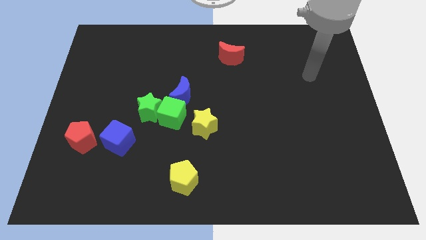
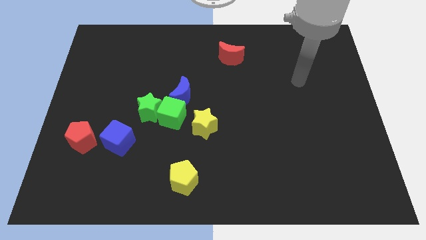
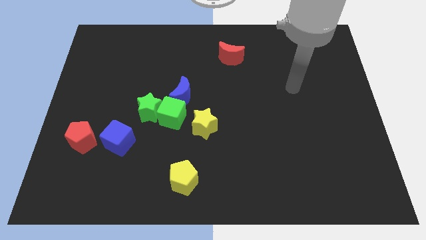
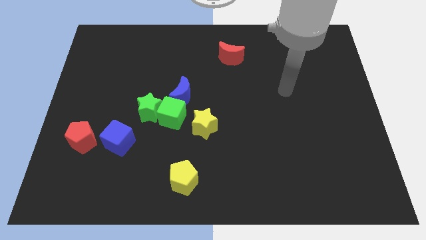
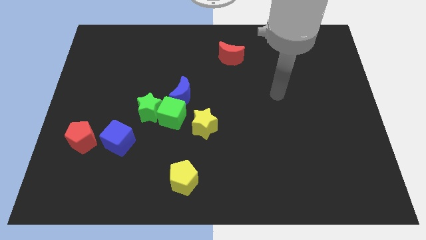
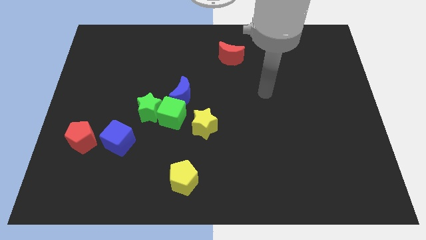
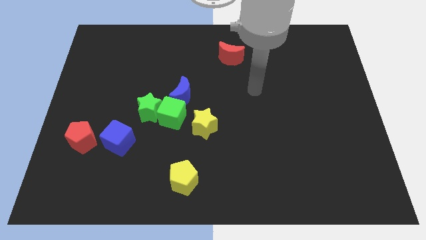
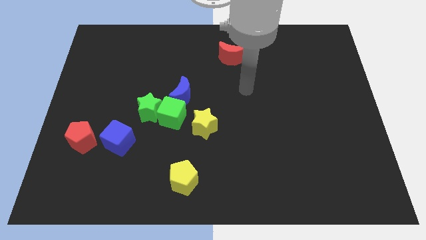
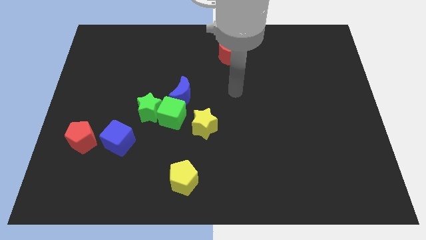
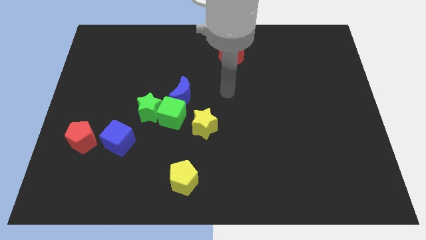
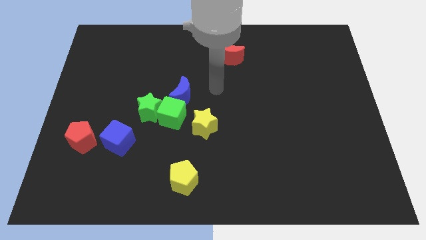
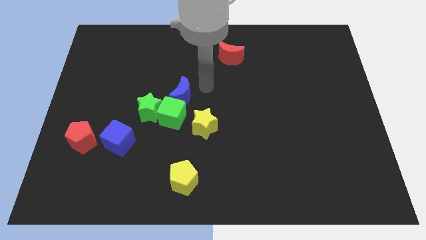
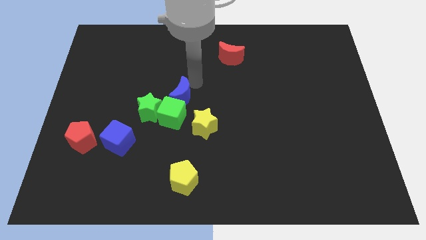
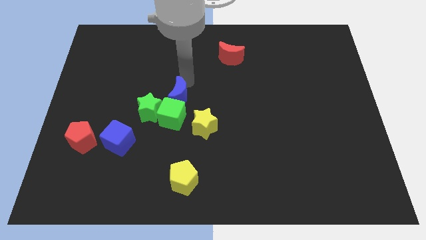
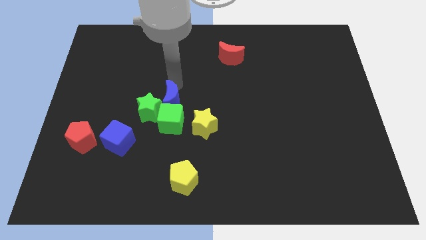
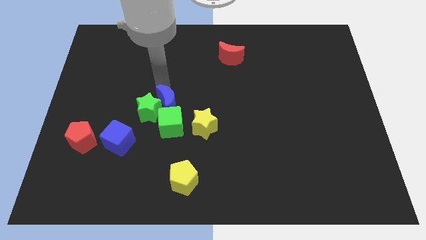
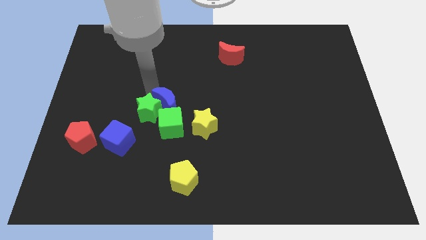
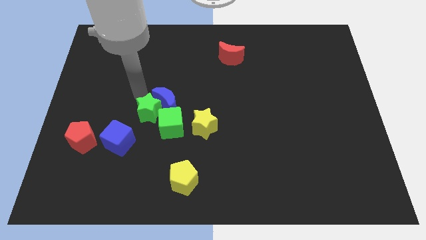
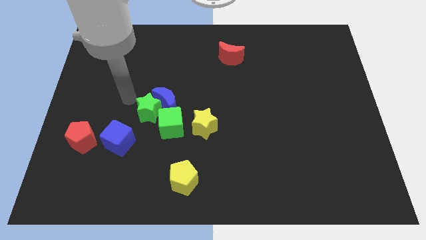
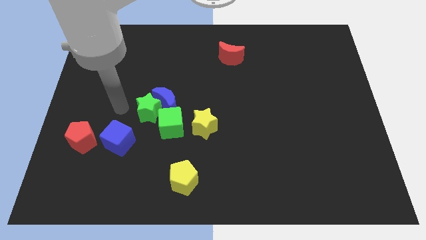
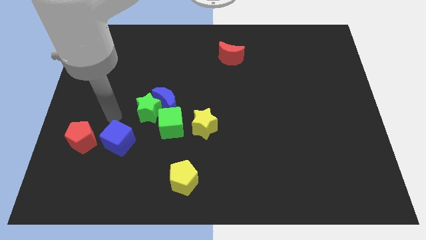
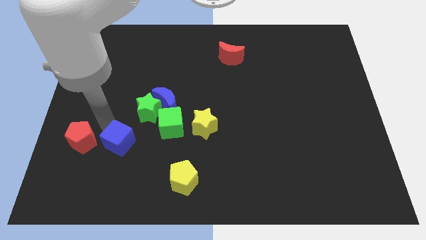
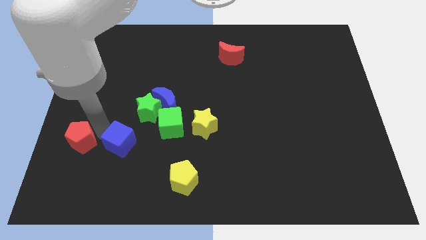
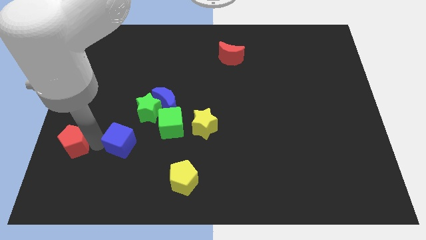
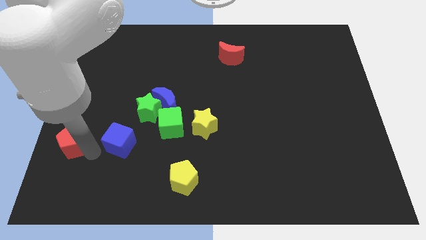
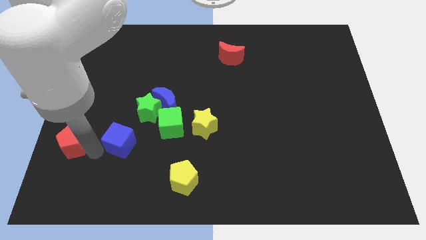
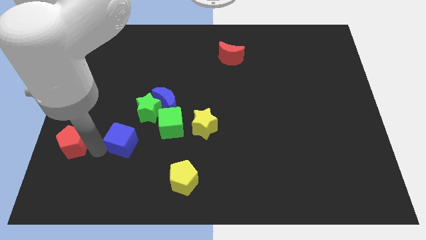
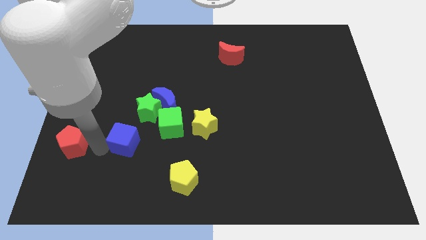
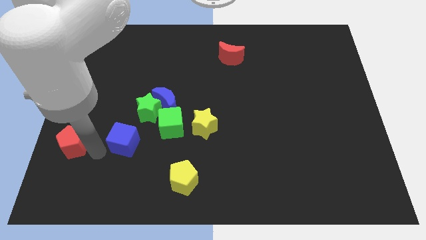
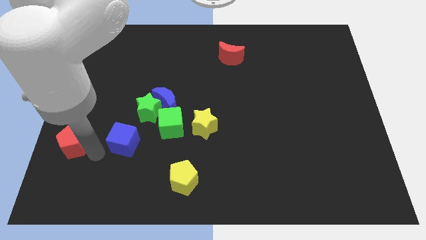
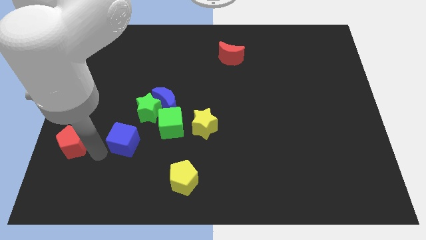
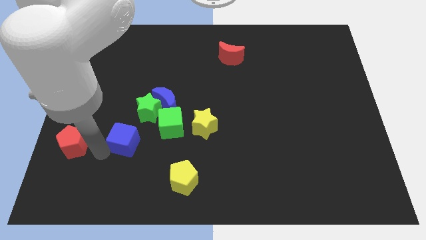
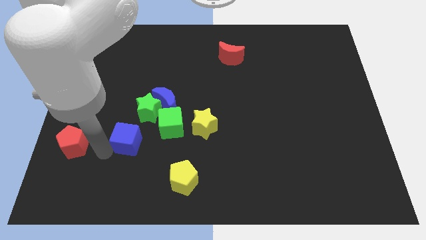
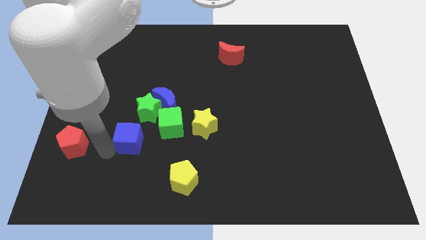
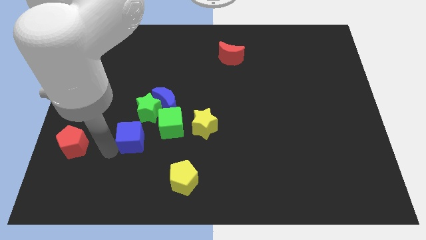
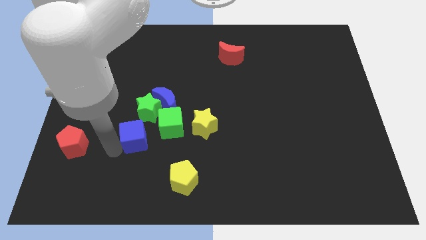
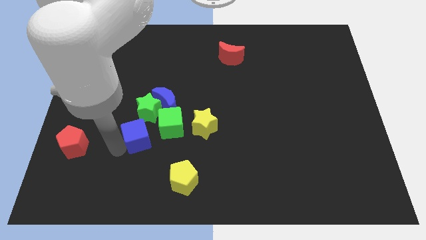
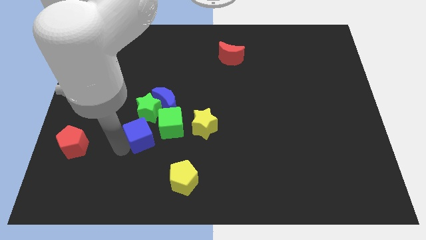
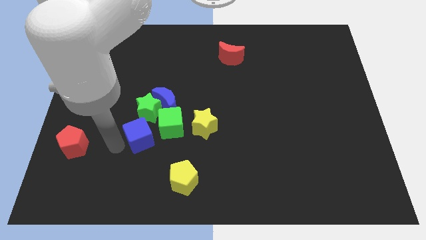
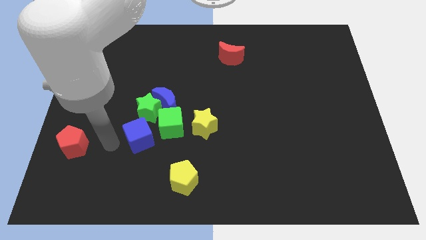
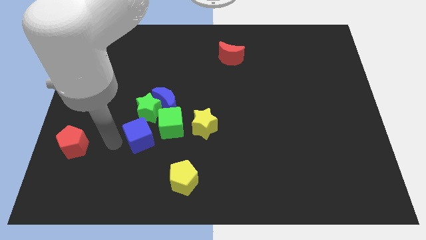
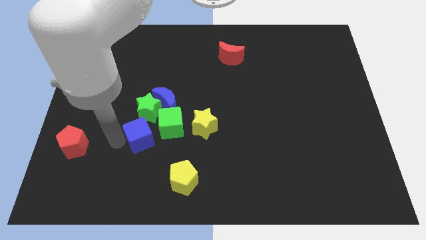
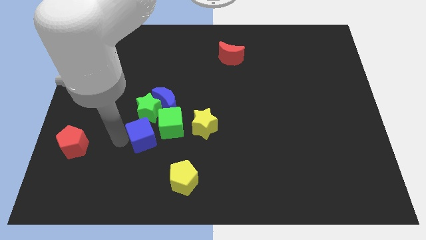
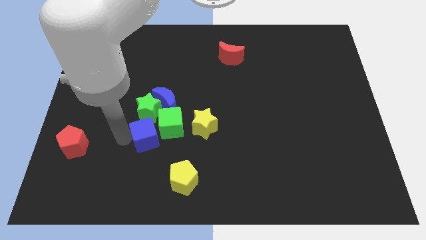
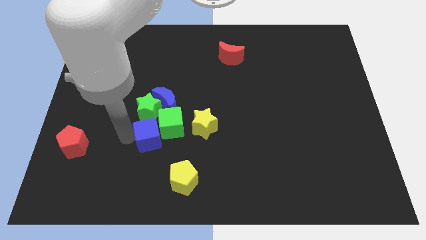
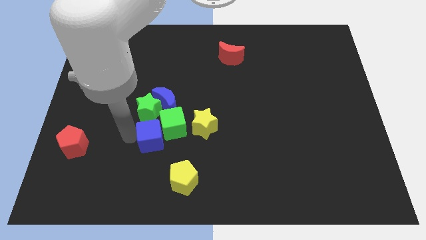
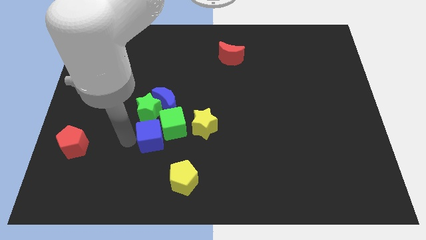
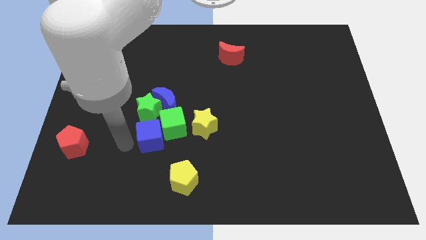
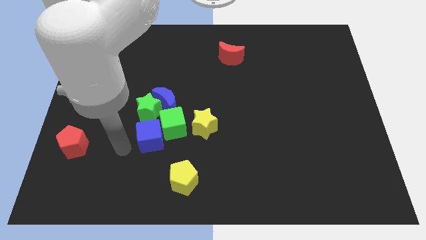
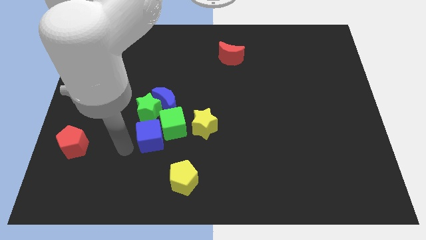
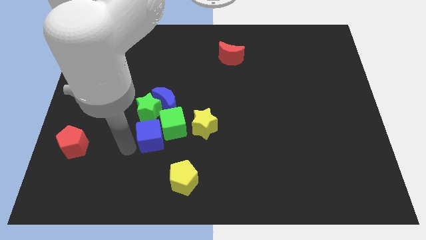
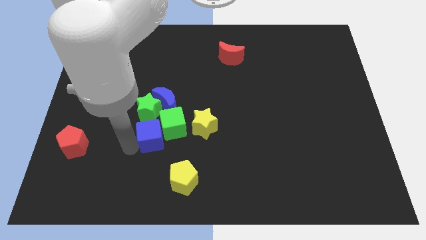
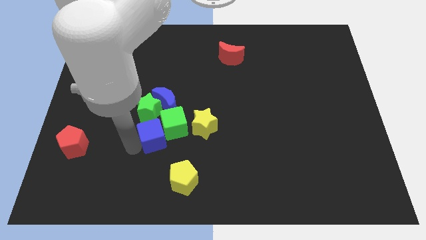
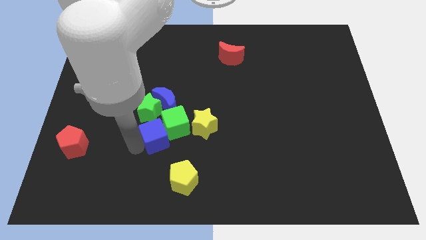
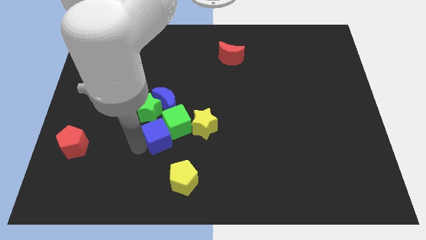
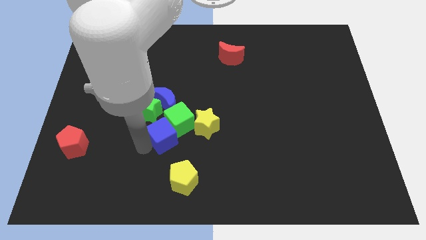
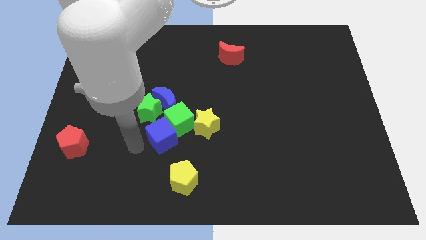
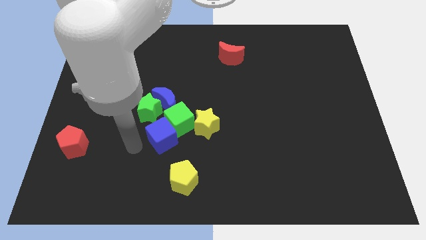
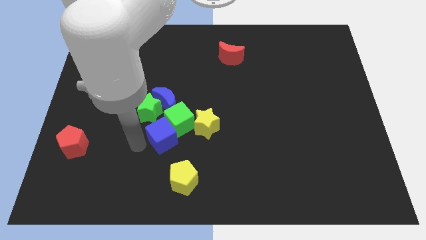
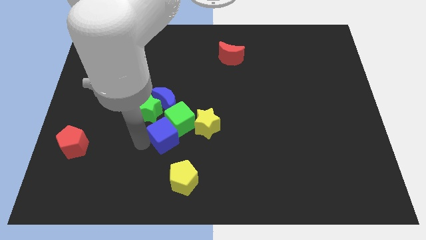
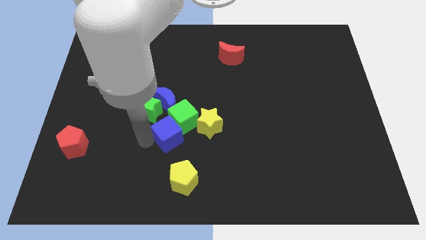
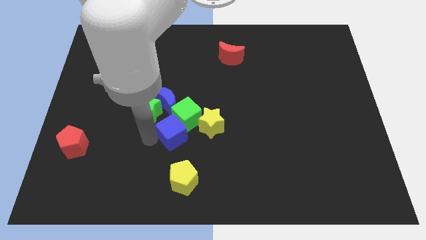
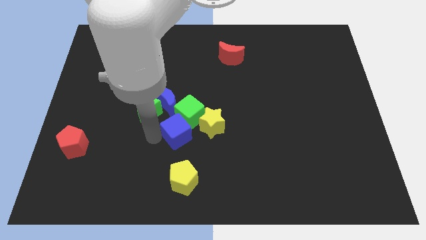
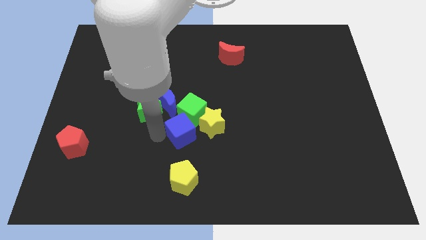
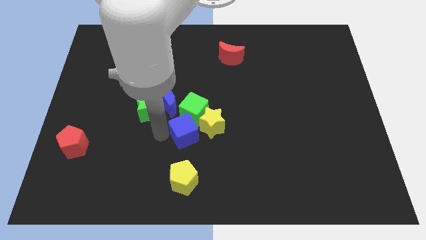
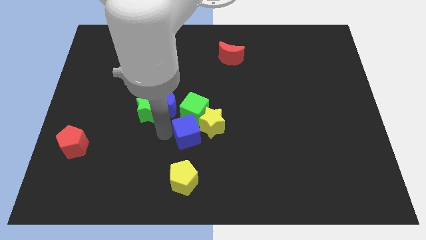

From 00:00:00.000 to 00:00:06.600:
move the blue cube to the yellow star

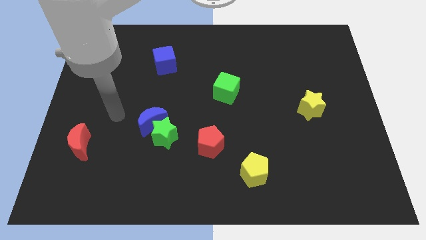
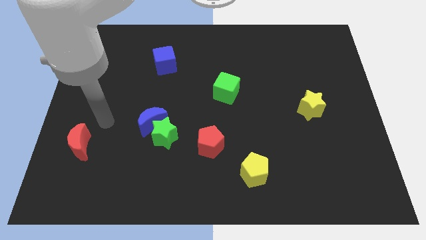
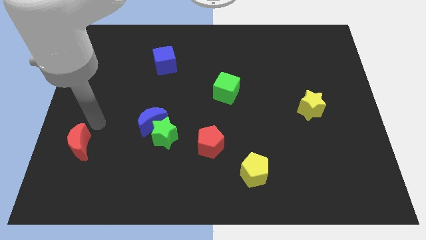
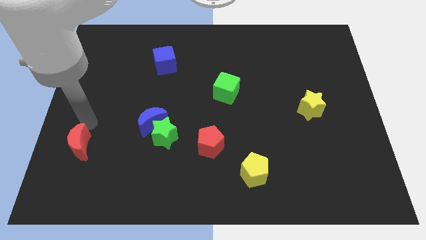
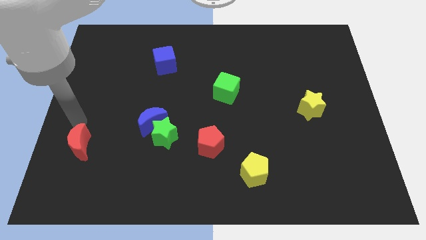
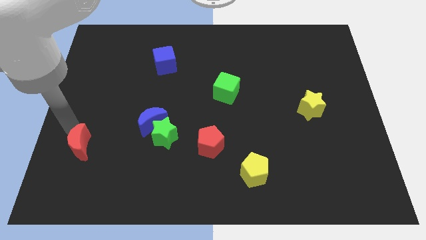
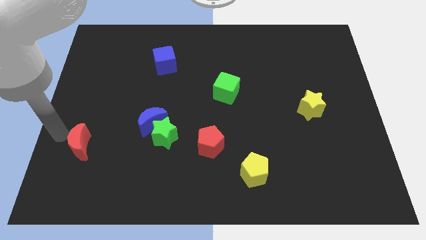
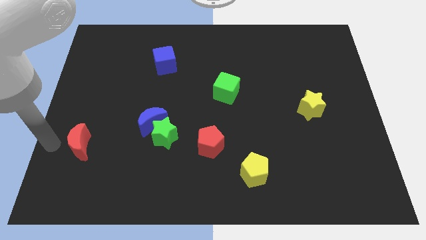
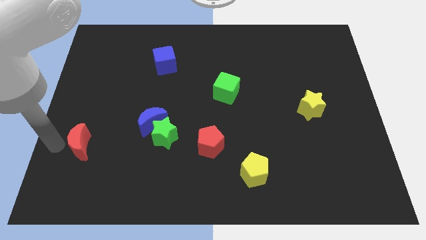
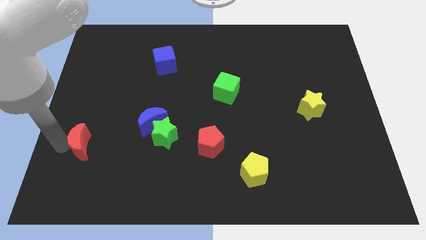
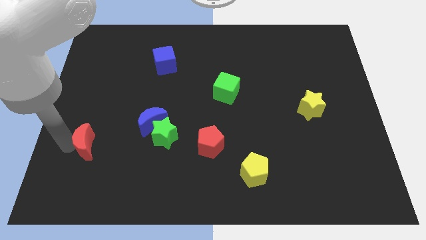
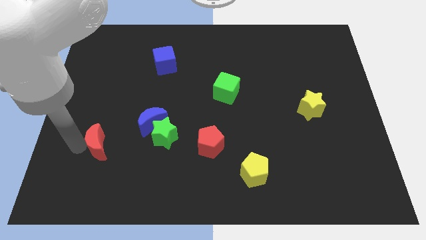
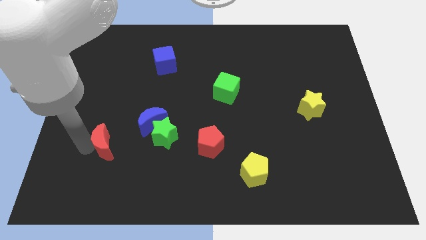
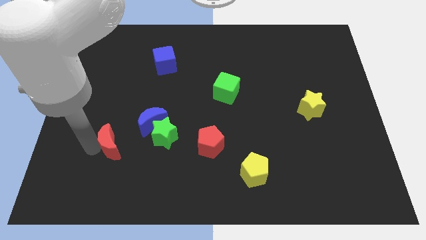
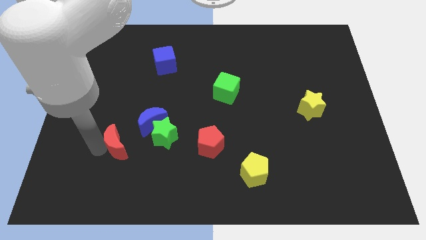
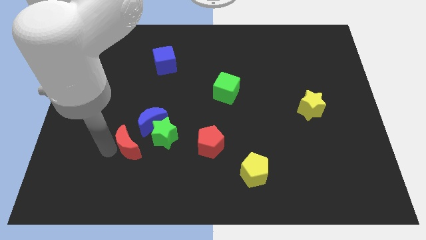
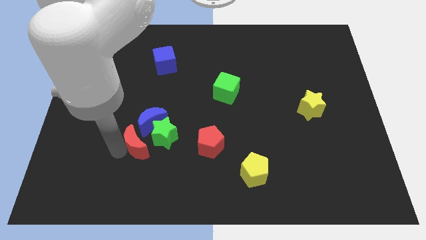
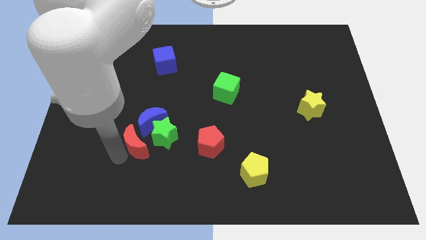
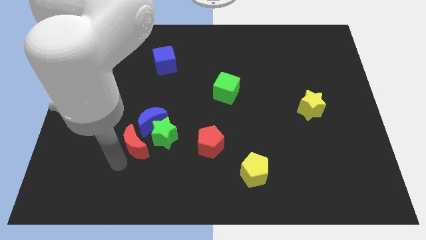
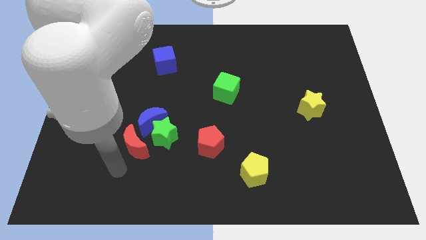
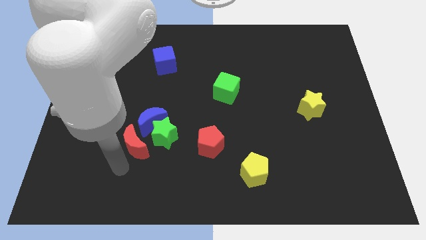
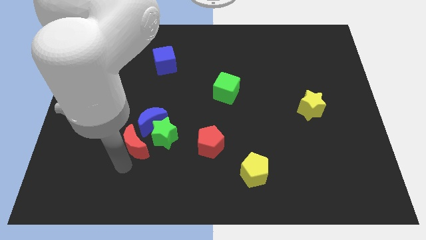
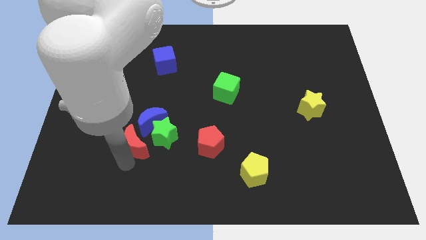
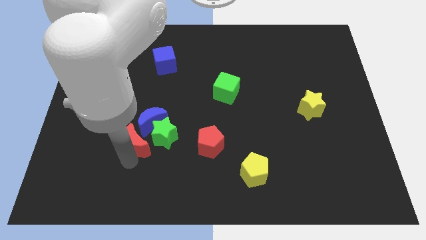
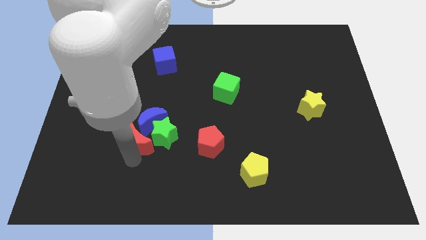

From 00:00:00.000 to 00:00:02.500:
move the red moon close to the blue moon
